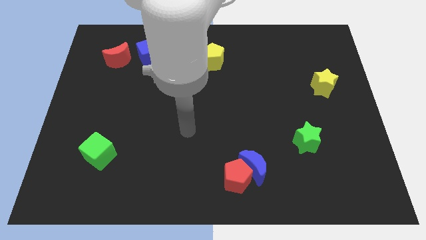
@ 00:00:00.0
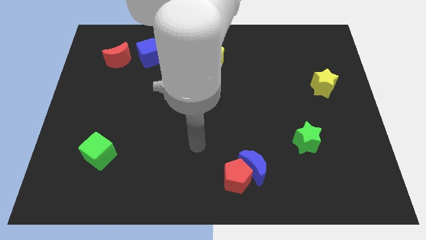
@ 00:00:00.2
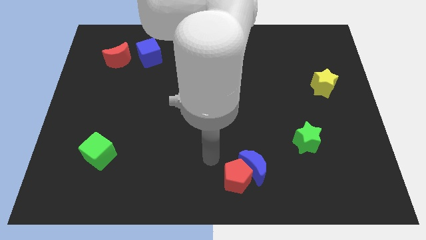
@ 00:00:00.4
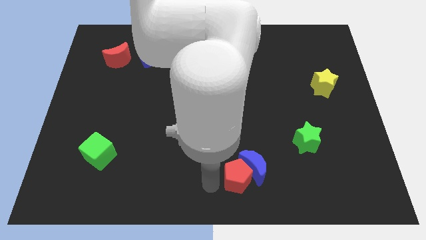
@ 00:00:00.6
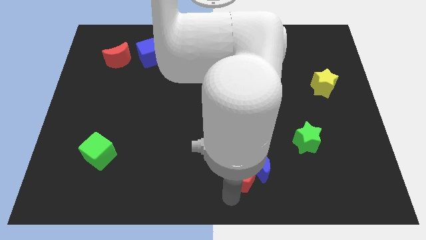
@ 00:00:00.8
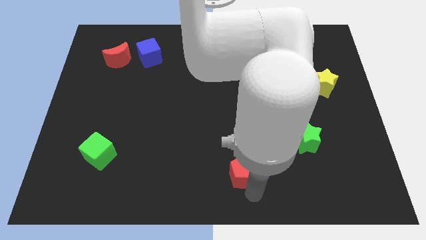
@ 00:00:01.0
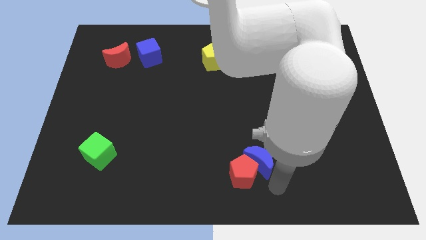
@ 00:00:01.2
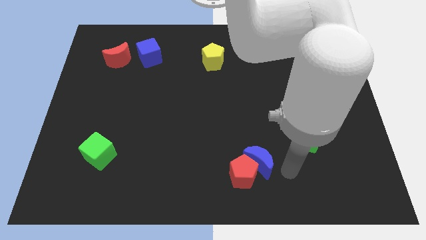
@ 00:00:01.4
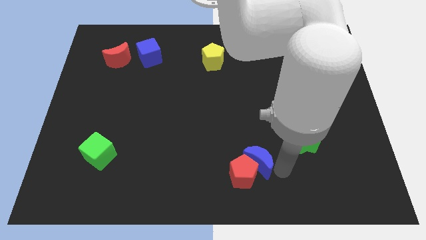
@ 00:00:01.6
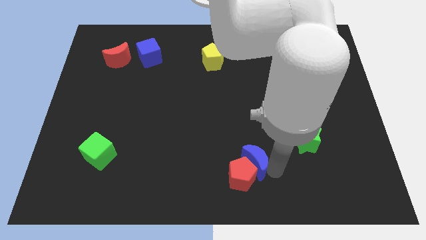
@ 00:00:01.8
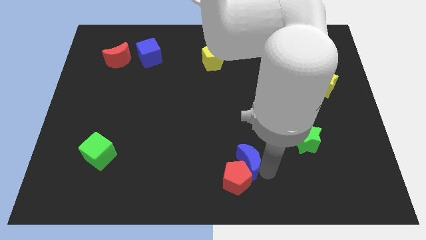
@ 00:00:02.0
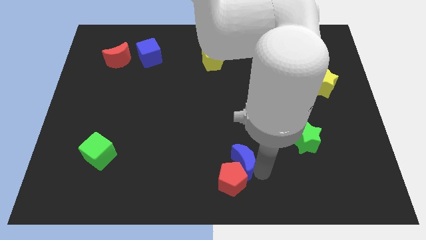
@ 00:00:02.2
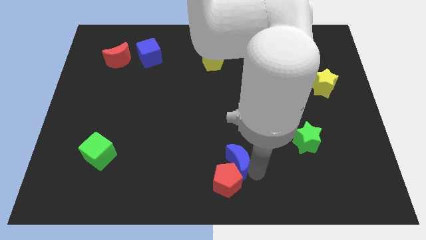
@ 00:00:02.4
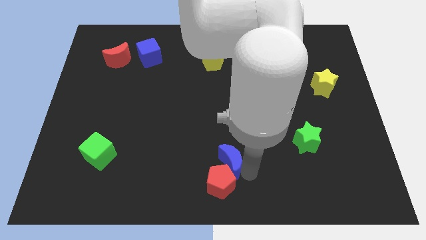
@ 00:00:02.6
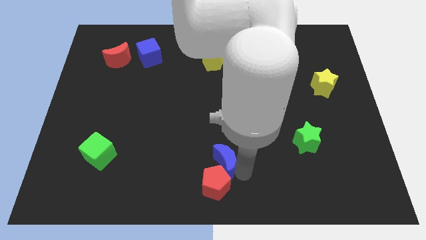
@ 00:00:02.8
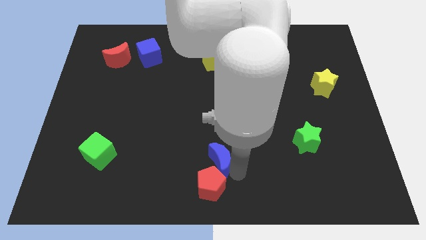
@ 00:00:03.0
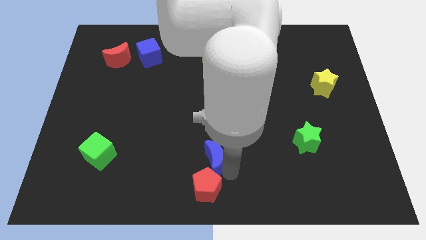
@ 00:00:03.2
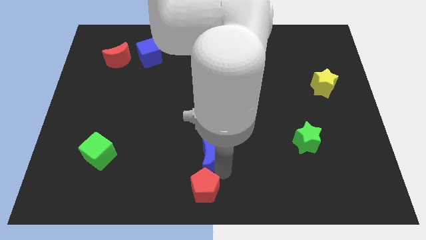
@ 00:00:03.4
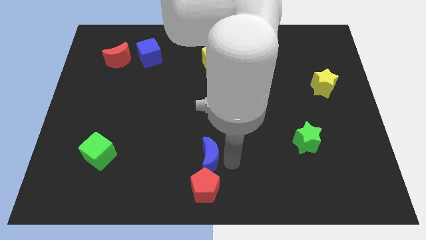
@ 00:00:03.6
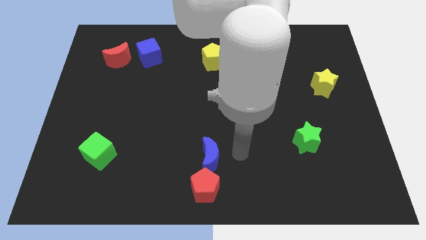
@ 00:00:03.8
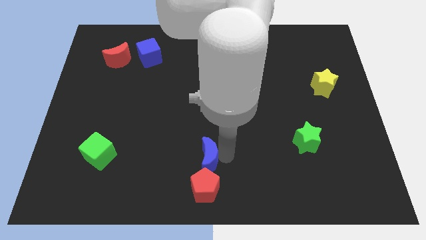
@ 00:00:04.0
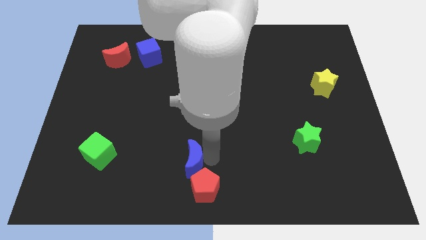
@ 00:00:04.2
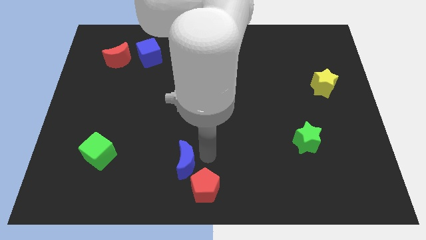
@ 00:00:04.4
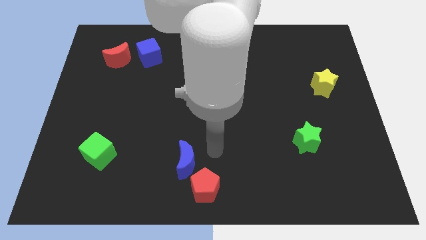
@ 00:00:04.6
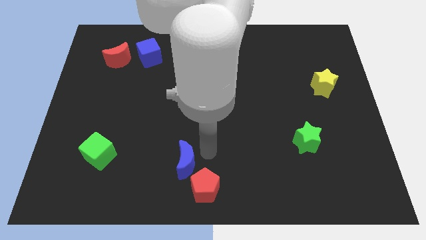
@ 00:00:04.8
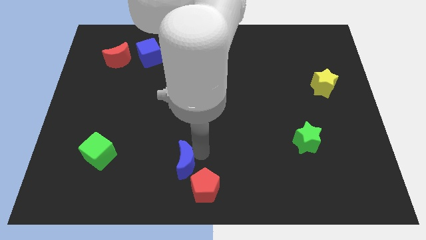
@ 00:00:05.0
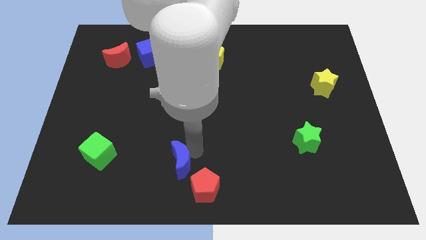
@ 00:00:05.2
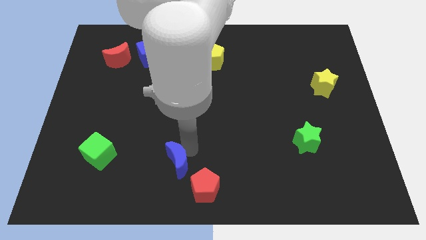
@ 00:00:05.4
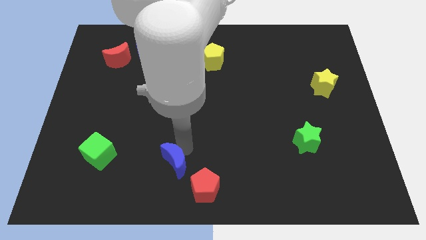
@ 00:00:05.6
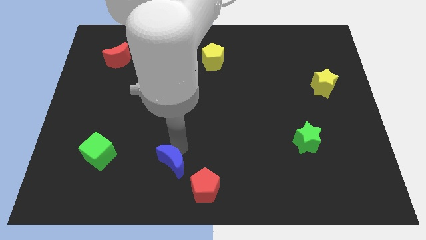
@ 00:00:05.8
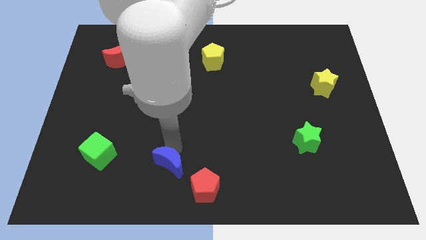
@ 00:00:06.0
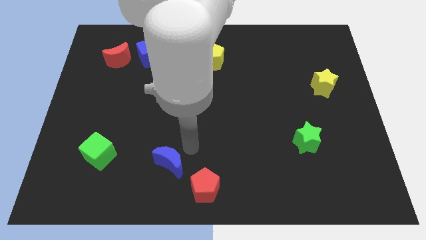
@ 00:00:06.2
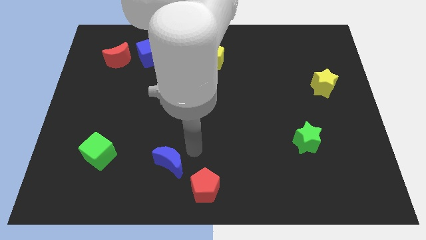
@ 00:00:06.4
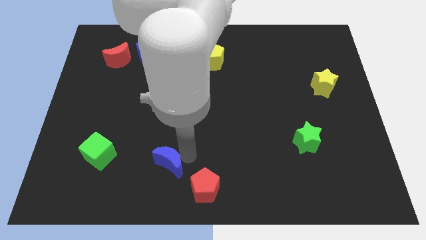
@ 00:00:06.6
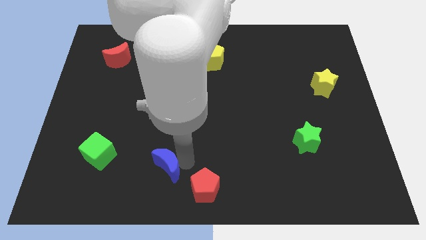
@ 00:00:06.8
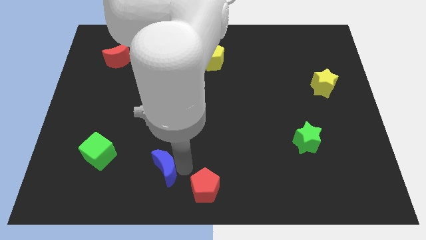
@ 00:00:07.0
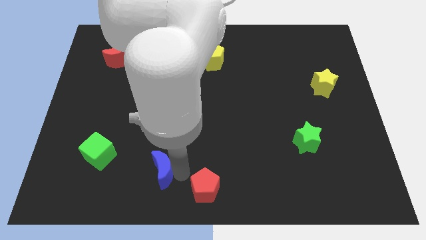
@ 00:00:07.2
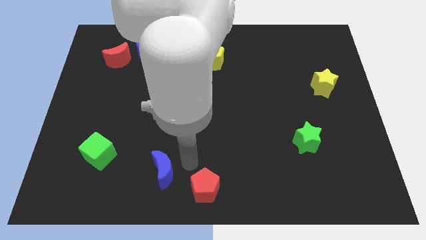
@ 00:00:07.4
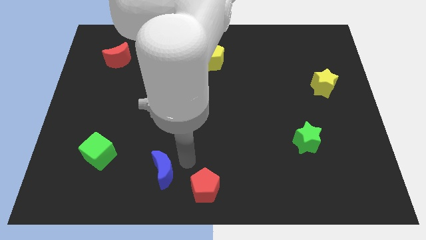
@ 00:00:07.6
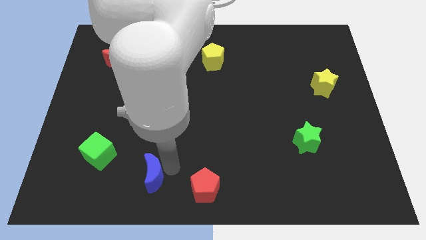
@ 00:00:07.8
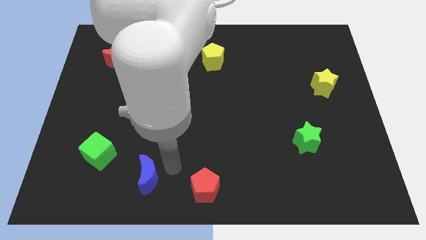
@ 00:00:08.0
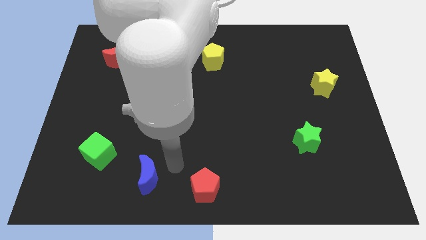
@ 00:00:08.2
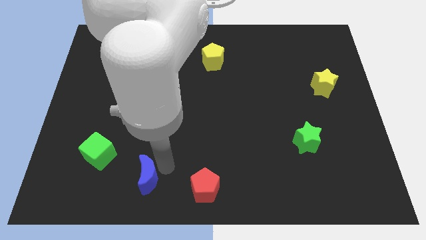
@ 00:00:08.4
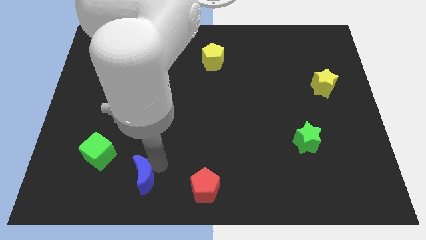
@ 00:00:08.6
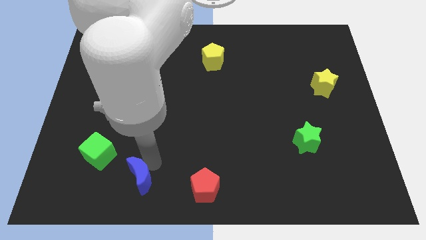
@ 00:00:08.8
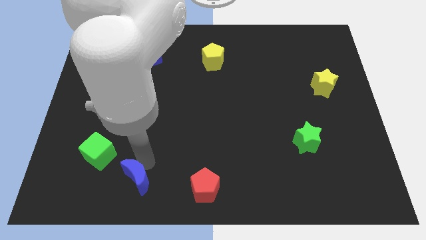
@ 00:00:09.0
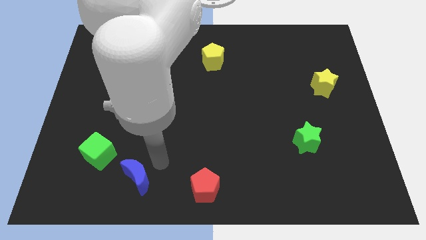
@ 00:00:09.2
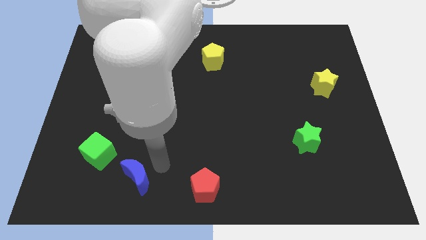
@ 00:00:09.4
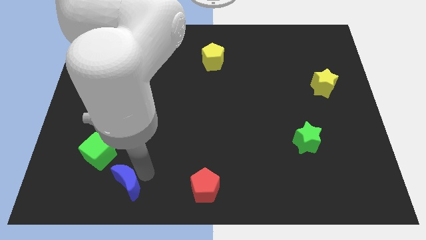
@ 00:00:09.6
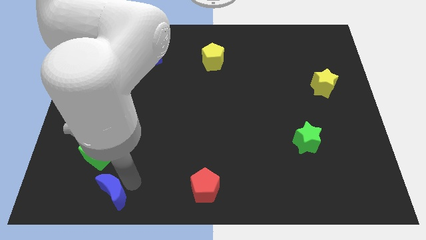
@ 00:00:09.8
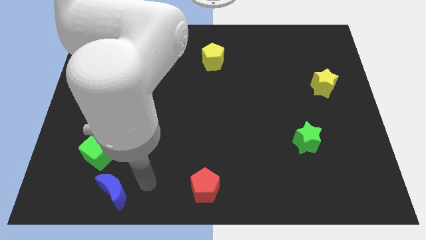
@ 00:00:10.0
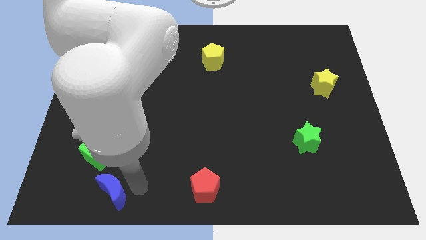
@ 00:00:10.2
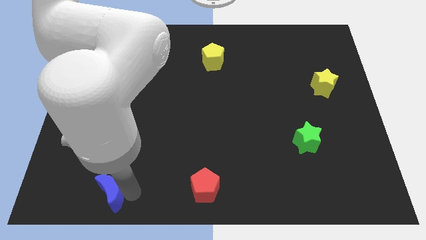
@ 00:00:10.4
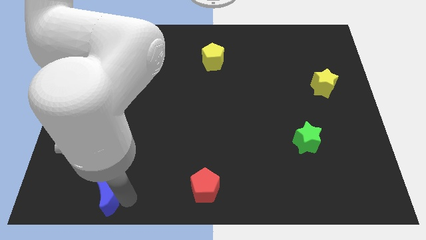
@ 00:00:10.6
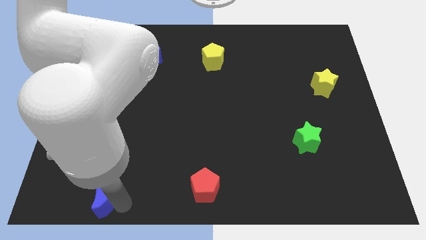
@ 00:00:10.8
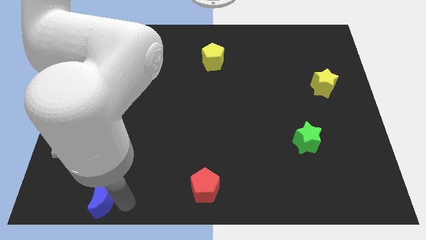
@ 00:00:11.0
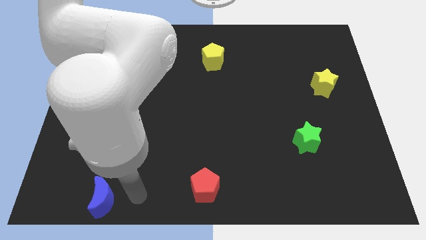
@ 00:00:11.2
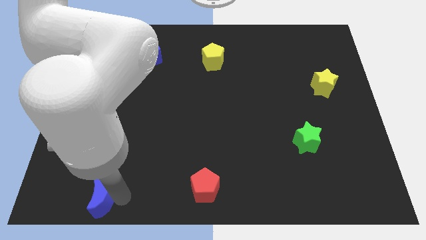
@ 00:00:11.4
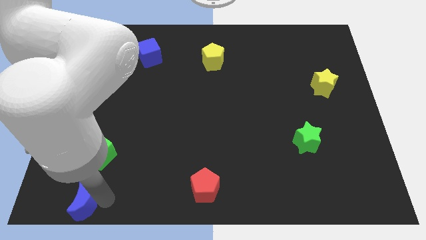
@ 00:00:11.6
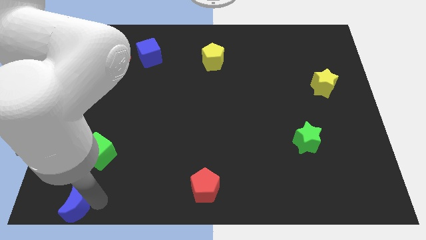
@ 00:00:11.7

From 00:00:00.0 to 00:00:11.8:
move the blue moon to the lower left corner

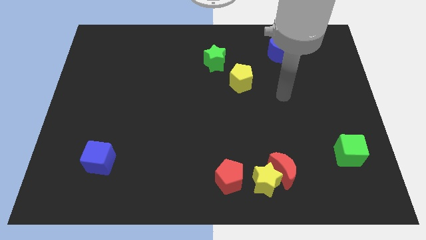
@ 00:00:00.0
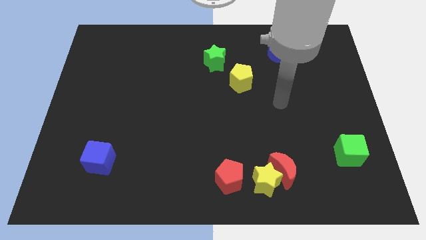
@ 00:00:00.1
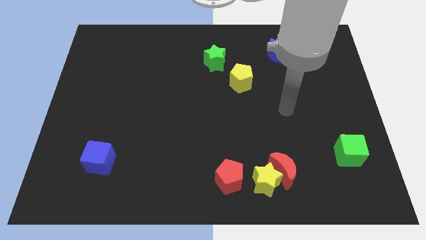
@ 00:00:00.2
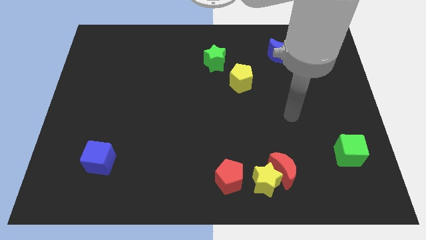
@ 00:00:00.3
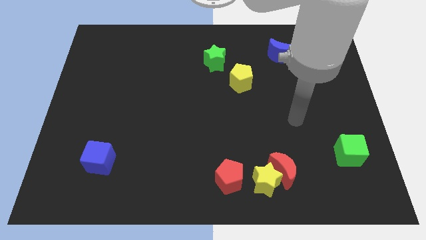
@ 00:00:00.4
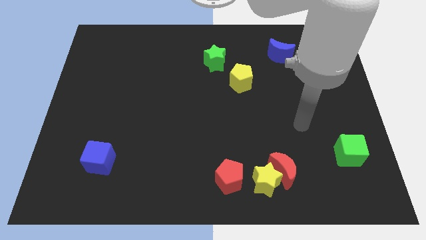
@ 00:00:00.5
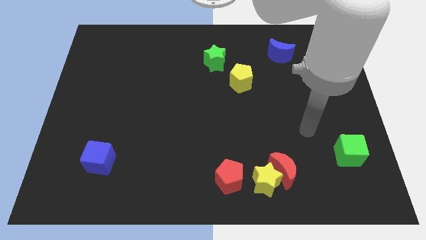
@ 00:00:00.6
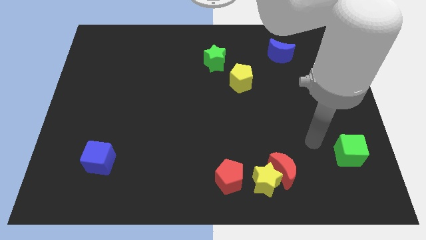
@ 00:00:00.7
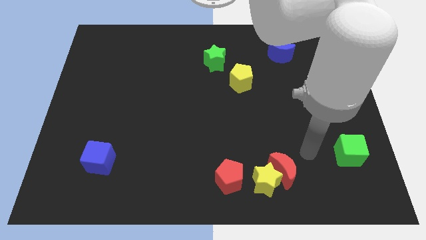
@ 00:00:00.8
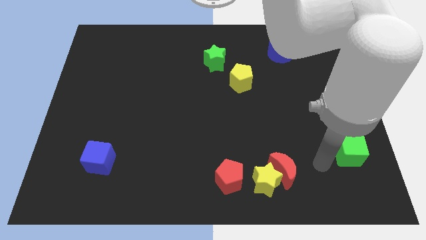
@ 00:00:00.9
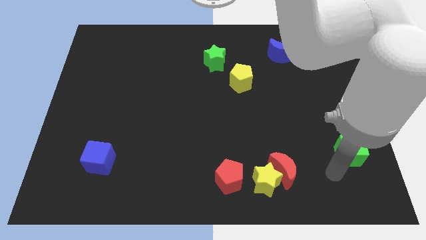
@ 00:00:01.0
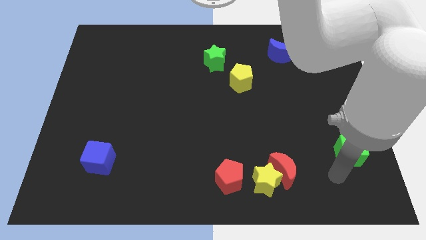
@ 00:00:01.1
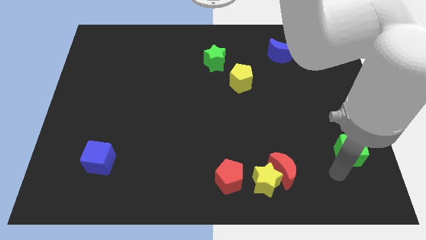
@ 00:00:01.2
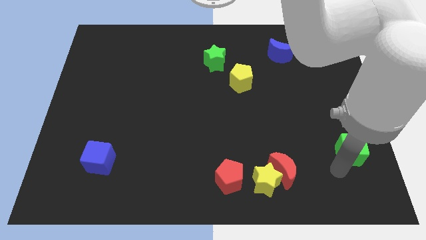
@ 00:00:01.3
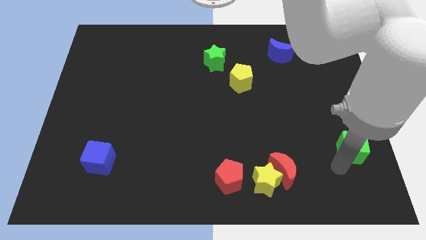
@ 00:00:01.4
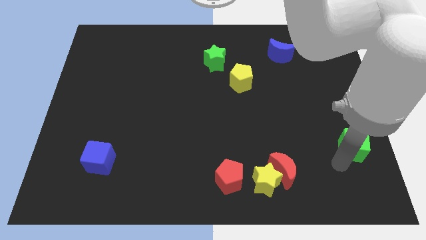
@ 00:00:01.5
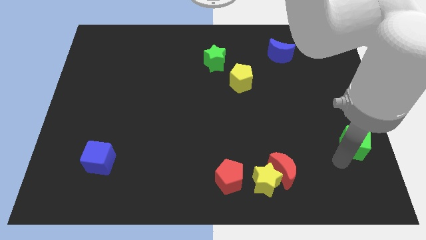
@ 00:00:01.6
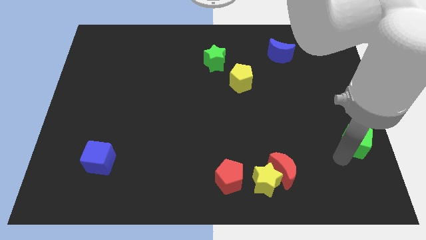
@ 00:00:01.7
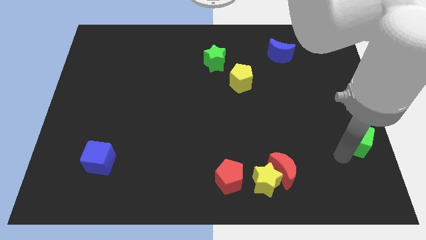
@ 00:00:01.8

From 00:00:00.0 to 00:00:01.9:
push the green cube to the center right
